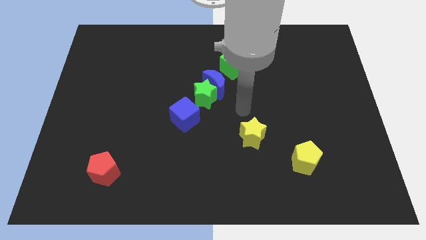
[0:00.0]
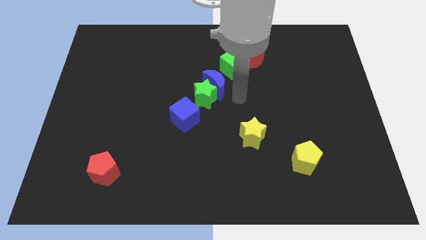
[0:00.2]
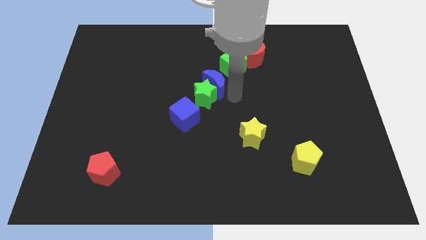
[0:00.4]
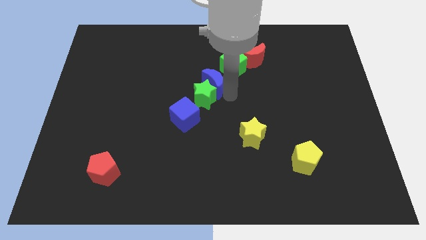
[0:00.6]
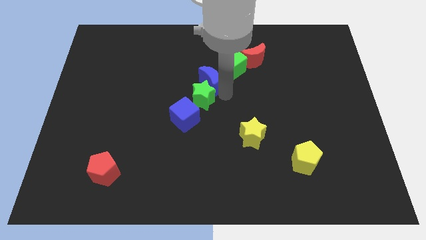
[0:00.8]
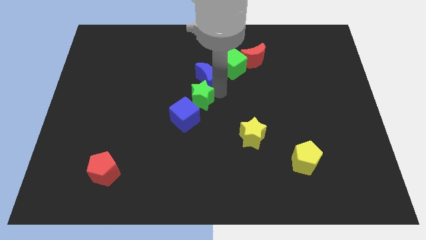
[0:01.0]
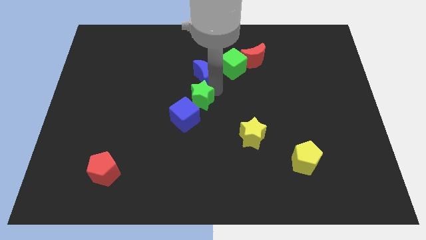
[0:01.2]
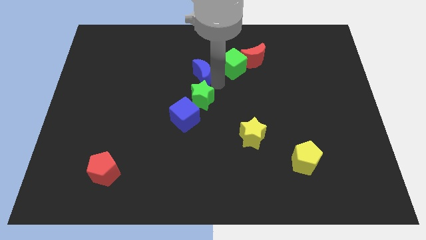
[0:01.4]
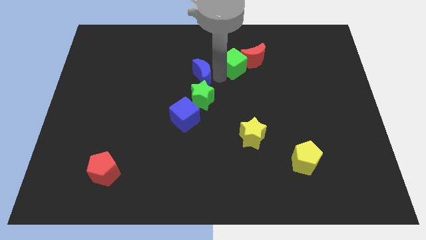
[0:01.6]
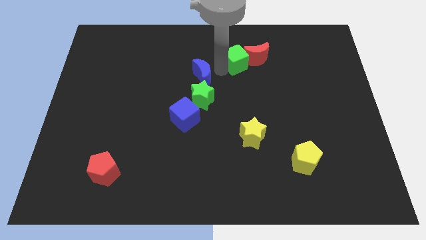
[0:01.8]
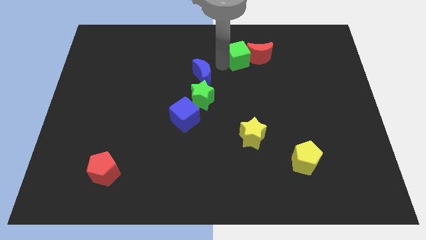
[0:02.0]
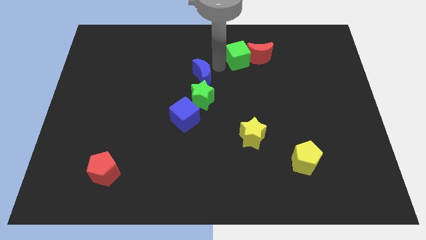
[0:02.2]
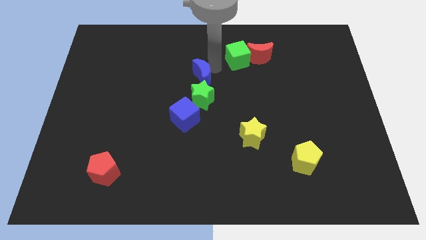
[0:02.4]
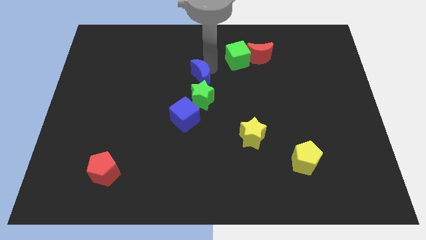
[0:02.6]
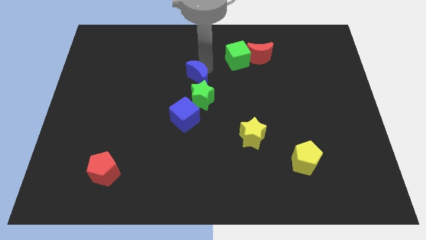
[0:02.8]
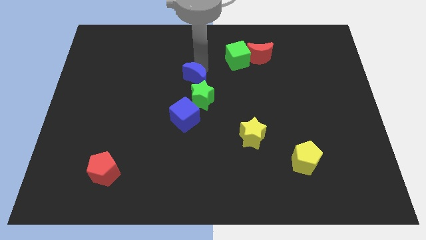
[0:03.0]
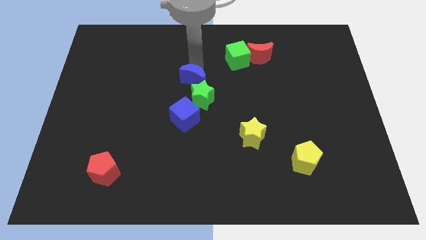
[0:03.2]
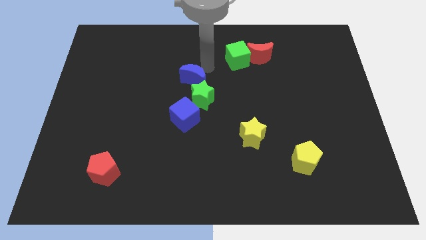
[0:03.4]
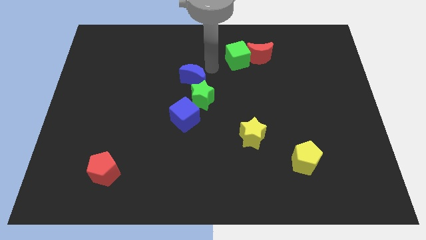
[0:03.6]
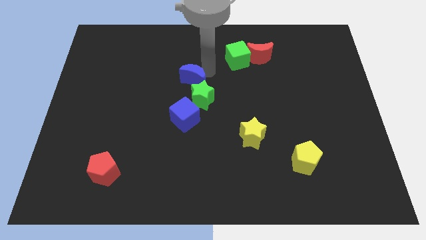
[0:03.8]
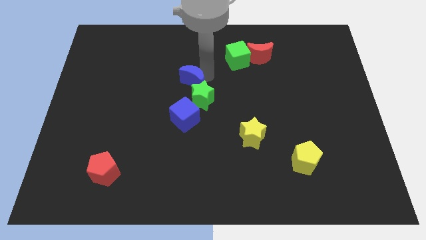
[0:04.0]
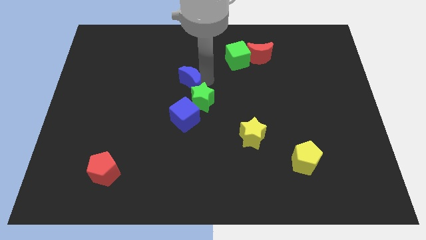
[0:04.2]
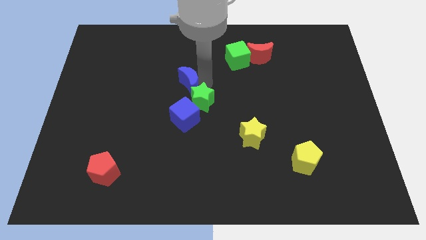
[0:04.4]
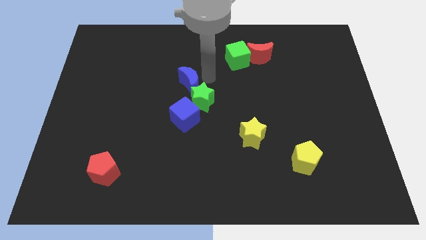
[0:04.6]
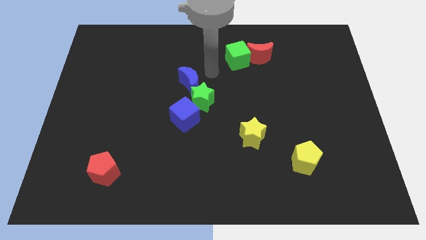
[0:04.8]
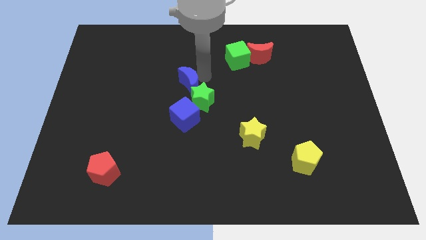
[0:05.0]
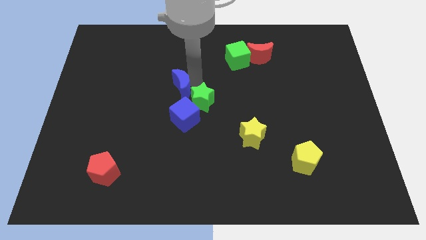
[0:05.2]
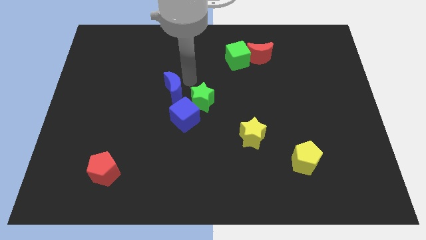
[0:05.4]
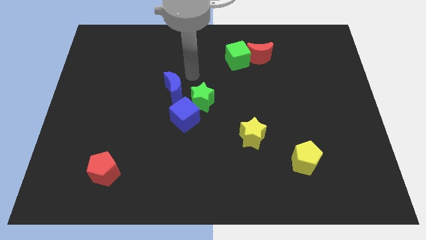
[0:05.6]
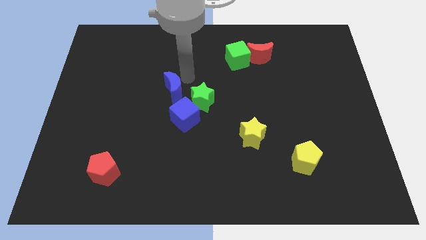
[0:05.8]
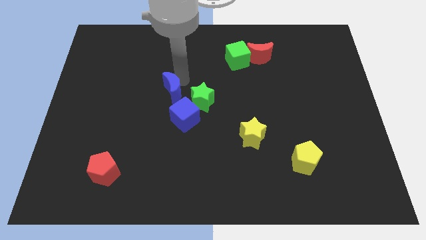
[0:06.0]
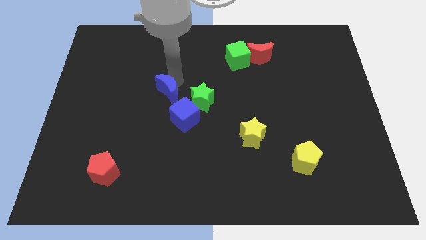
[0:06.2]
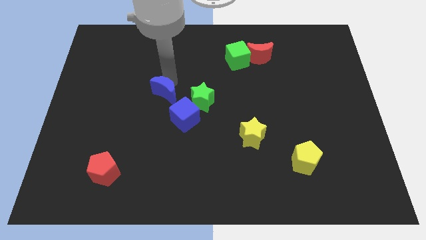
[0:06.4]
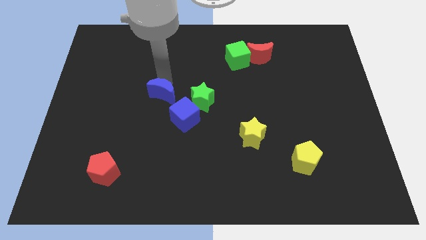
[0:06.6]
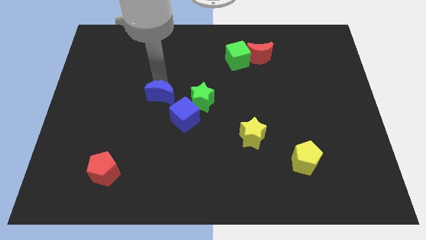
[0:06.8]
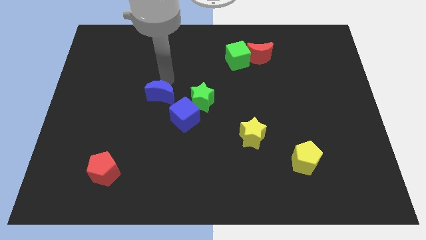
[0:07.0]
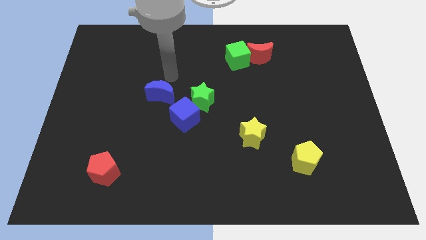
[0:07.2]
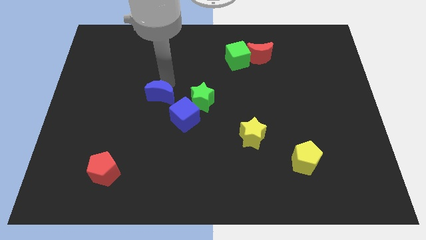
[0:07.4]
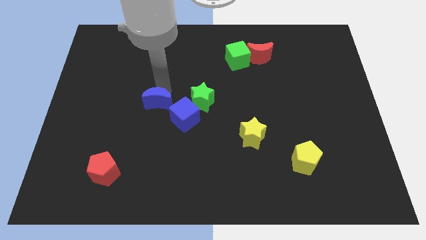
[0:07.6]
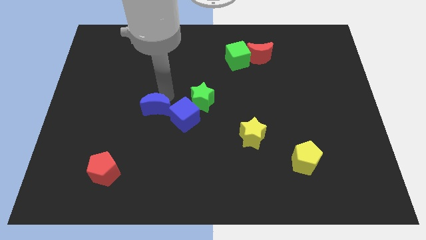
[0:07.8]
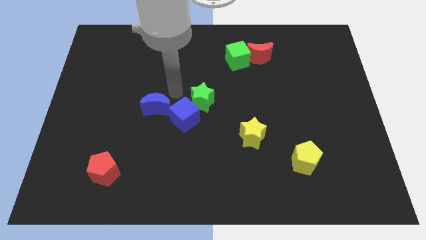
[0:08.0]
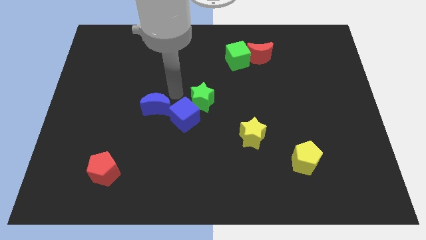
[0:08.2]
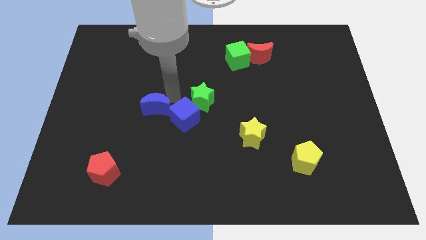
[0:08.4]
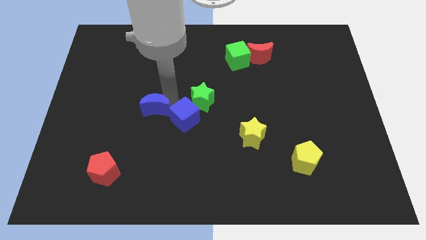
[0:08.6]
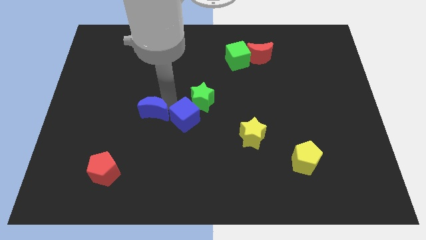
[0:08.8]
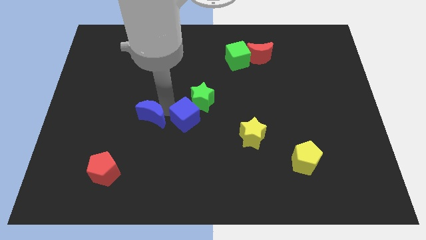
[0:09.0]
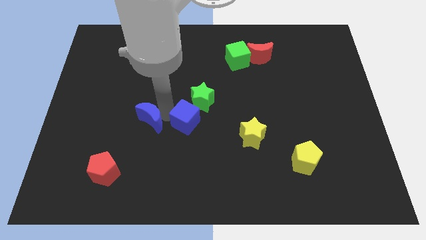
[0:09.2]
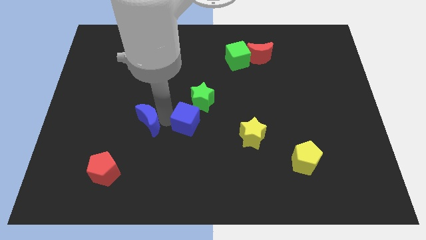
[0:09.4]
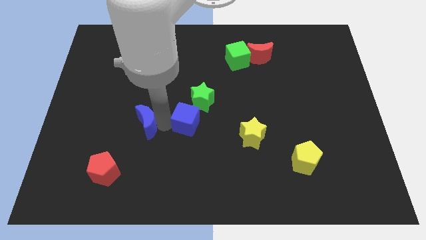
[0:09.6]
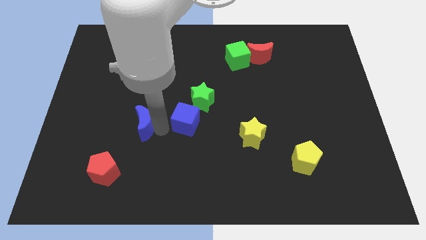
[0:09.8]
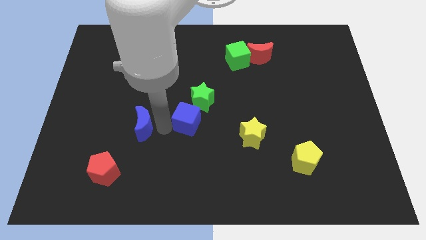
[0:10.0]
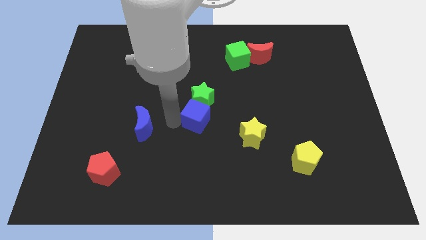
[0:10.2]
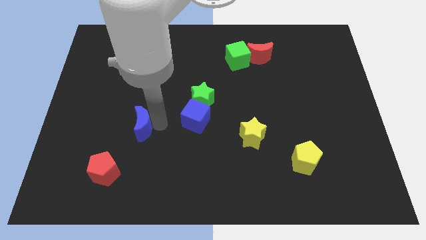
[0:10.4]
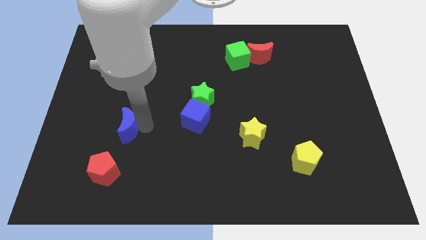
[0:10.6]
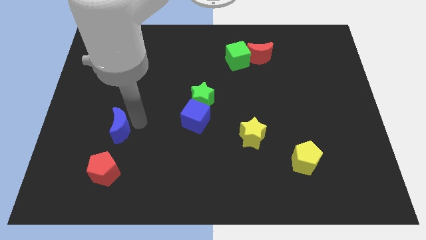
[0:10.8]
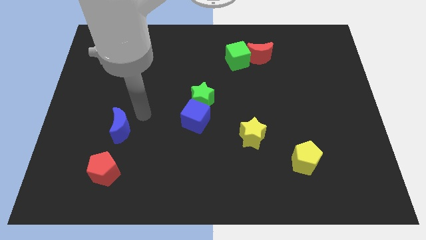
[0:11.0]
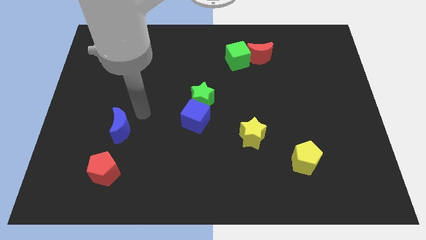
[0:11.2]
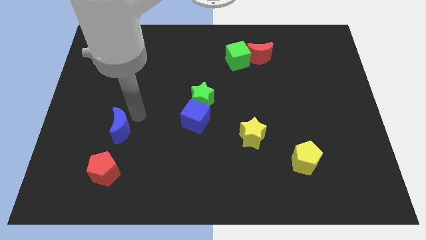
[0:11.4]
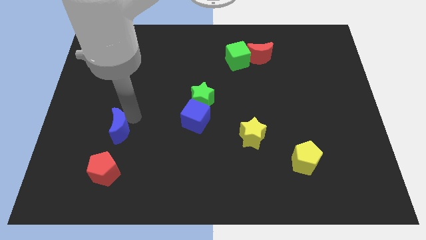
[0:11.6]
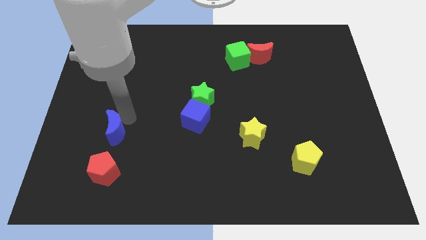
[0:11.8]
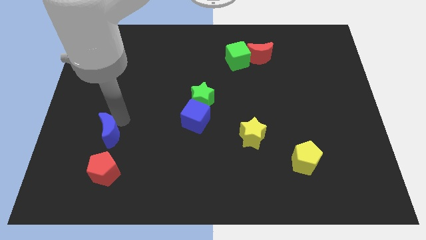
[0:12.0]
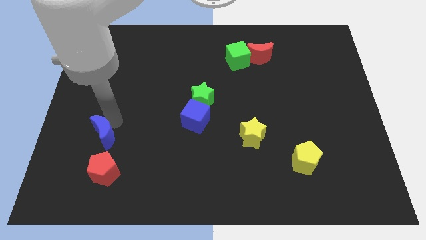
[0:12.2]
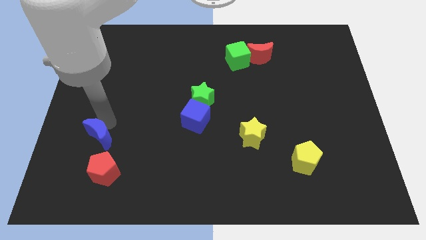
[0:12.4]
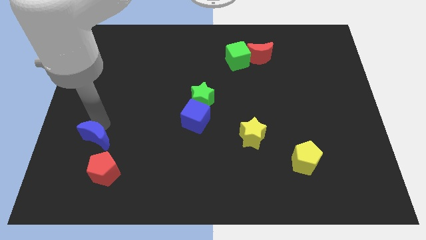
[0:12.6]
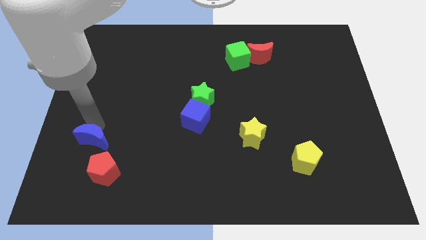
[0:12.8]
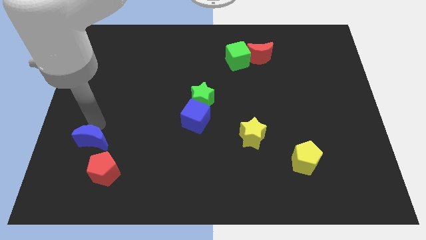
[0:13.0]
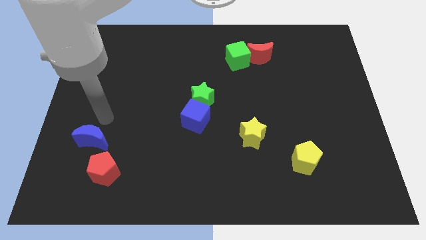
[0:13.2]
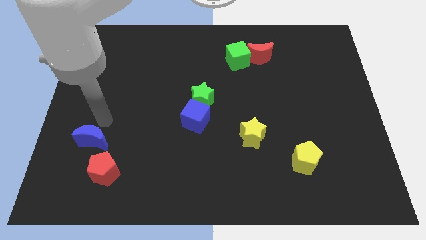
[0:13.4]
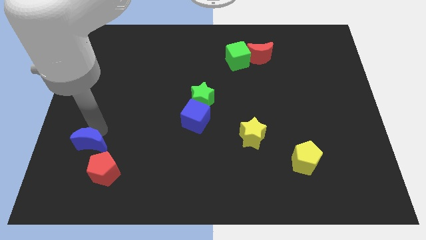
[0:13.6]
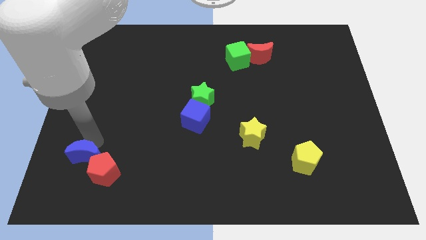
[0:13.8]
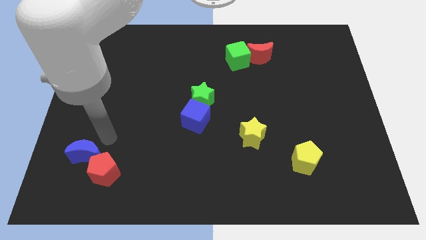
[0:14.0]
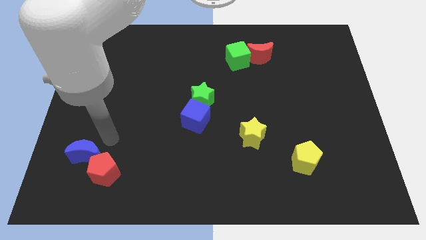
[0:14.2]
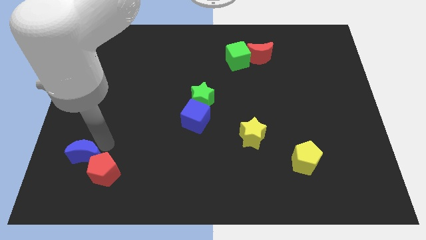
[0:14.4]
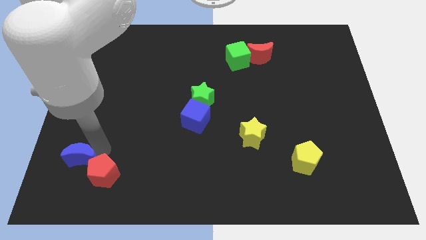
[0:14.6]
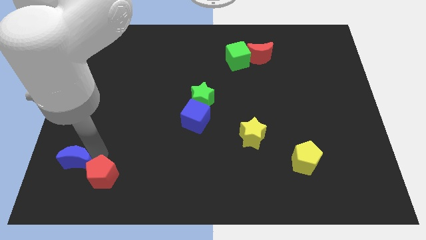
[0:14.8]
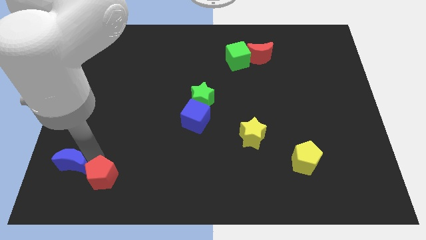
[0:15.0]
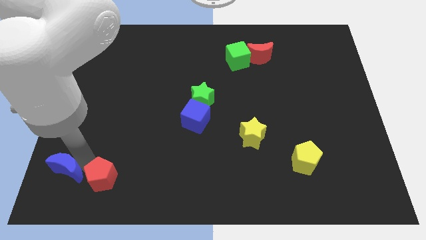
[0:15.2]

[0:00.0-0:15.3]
put the blue moon to the bottom left corner
